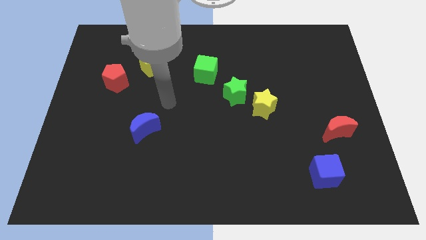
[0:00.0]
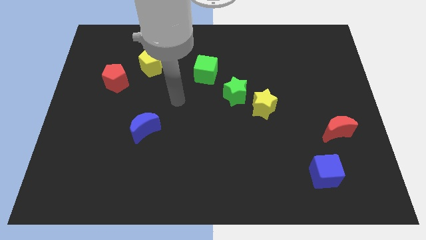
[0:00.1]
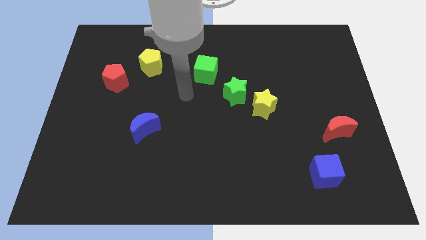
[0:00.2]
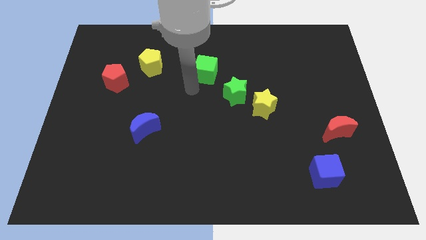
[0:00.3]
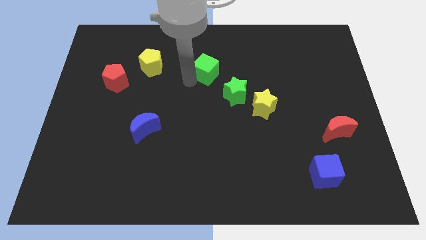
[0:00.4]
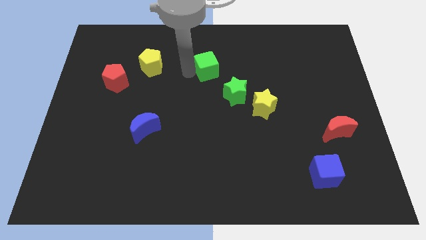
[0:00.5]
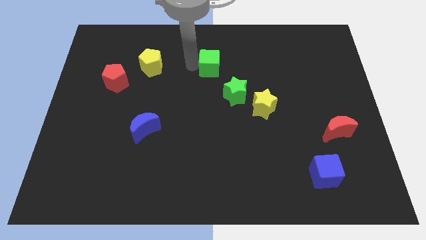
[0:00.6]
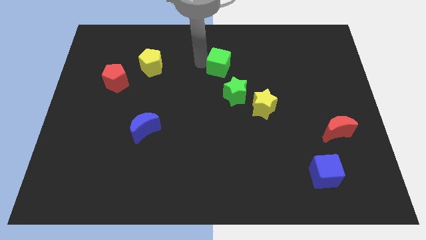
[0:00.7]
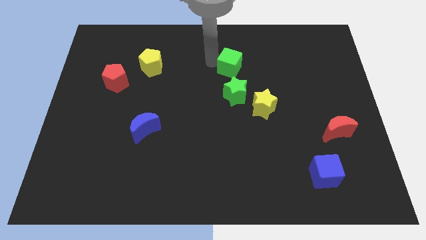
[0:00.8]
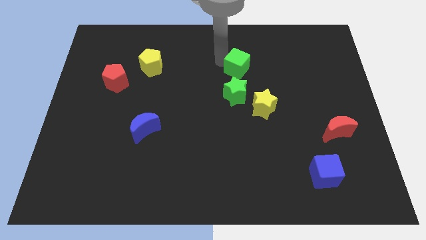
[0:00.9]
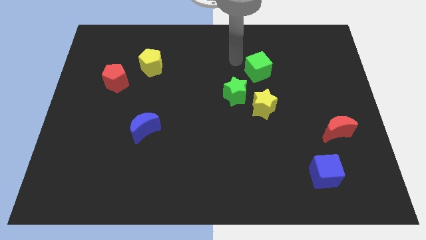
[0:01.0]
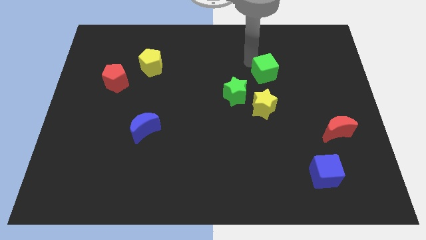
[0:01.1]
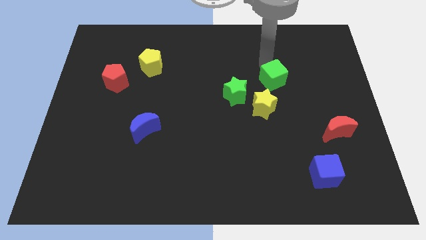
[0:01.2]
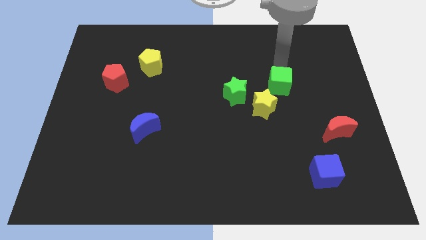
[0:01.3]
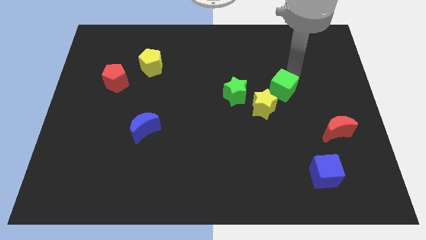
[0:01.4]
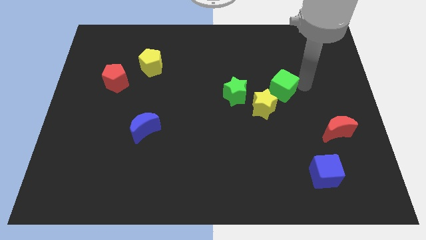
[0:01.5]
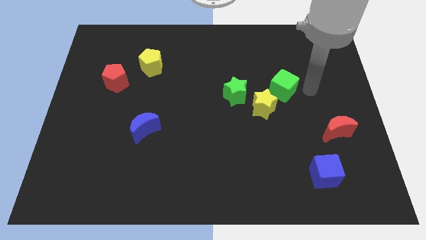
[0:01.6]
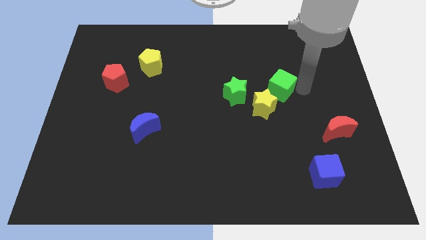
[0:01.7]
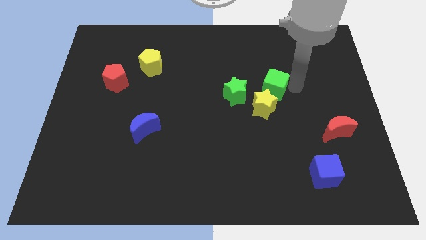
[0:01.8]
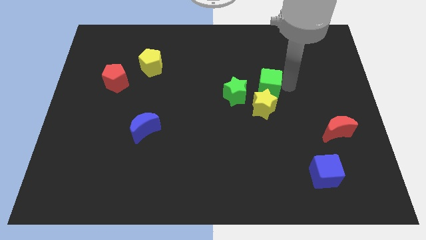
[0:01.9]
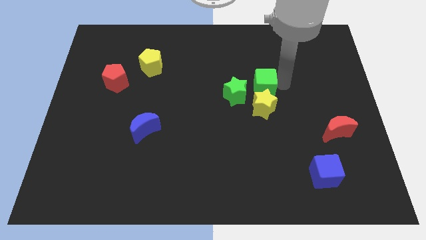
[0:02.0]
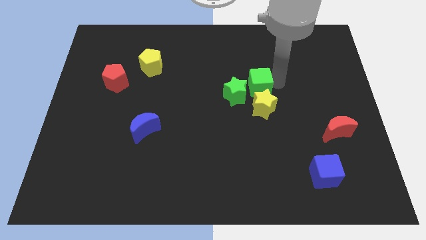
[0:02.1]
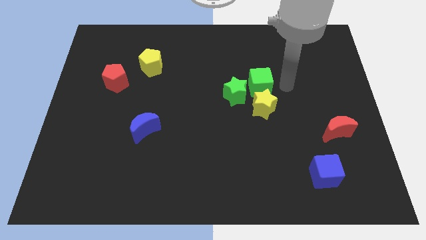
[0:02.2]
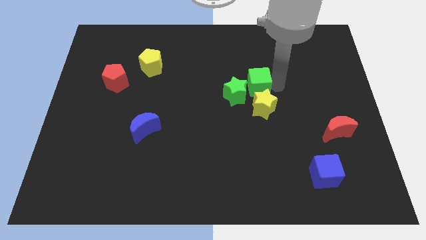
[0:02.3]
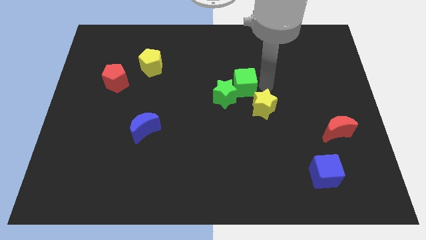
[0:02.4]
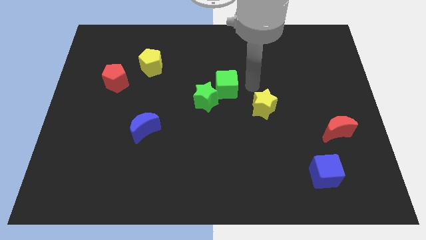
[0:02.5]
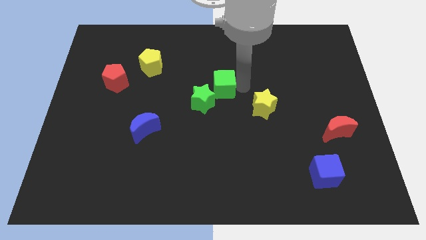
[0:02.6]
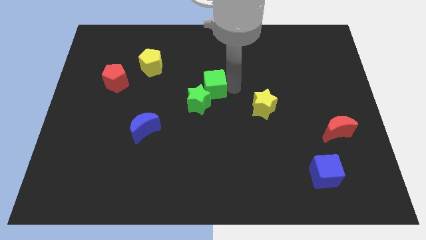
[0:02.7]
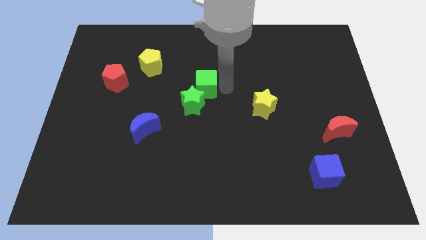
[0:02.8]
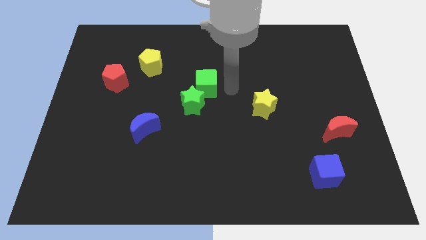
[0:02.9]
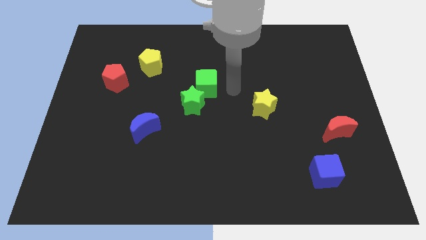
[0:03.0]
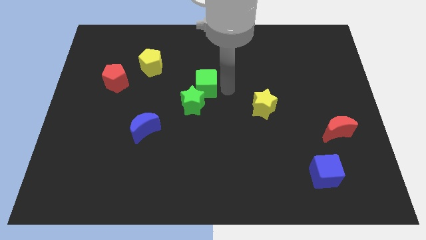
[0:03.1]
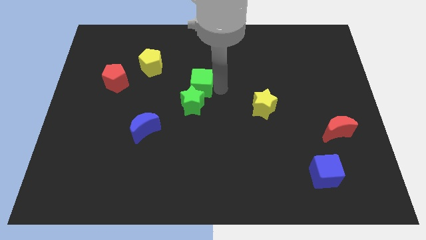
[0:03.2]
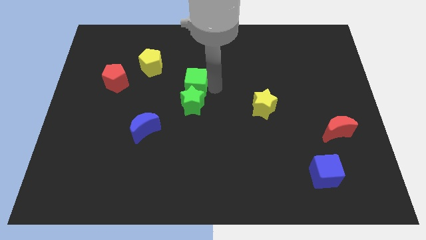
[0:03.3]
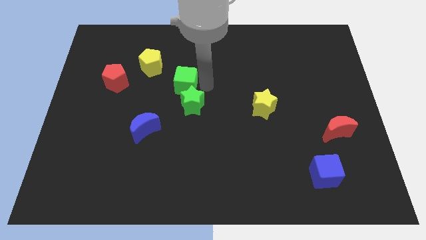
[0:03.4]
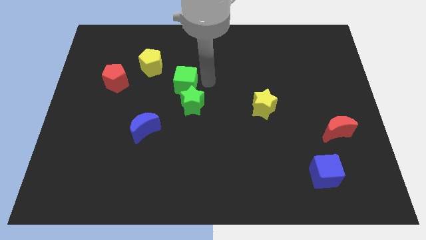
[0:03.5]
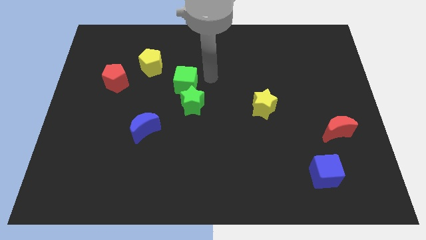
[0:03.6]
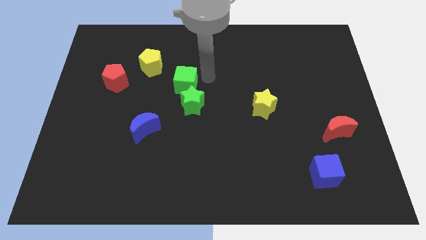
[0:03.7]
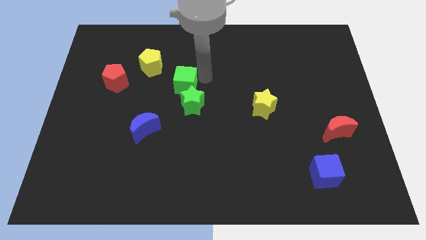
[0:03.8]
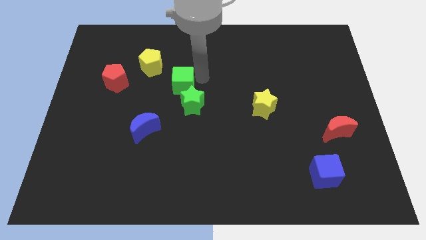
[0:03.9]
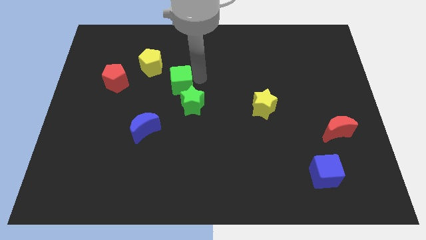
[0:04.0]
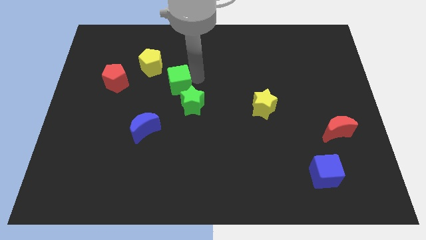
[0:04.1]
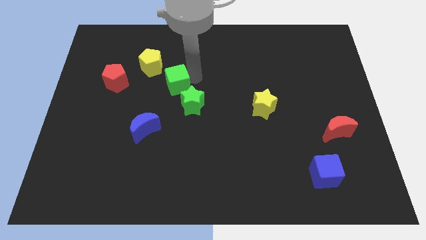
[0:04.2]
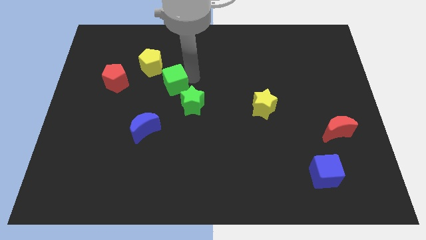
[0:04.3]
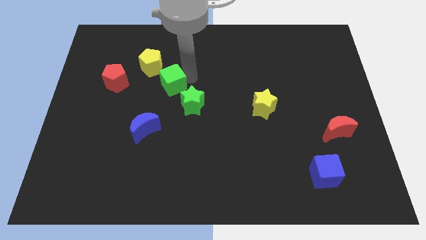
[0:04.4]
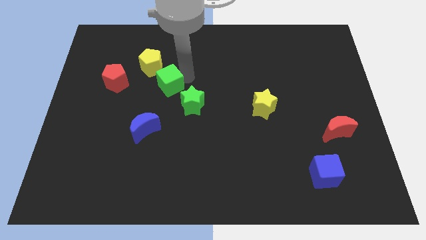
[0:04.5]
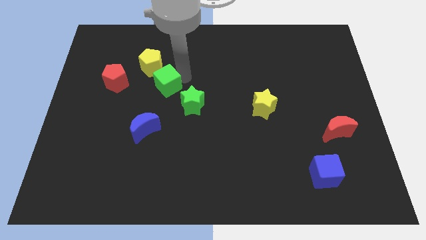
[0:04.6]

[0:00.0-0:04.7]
move the green cube above the blue moon

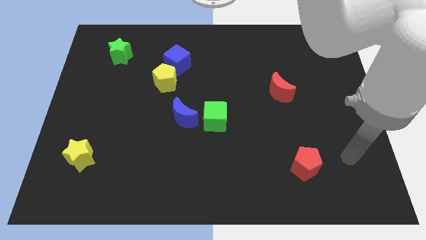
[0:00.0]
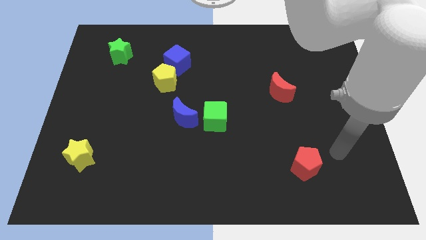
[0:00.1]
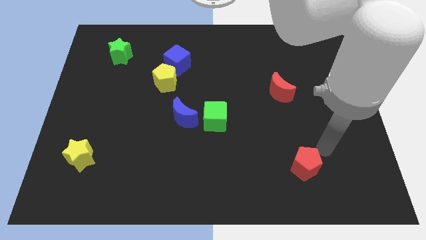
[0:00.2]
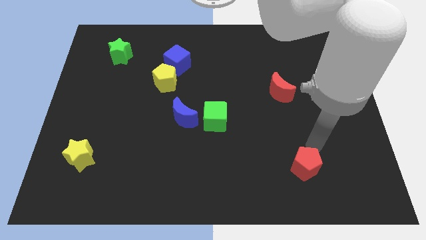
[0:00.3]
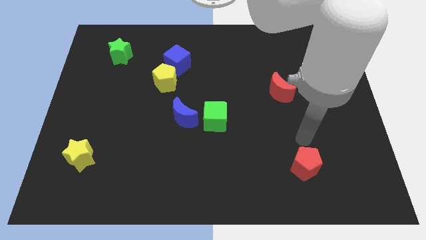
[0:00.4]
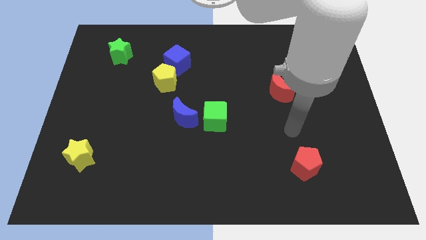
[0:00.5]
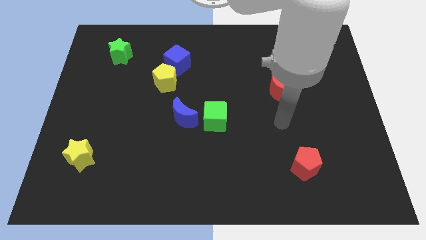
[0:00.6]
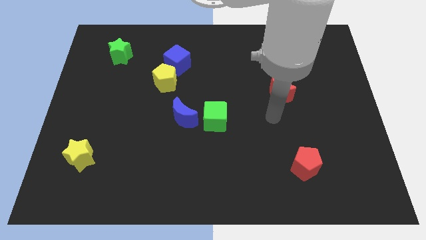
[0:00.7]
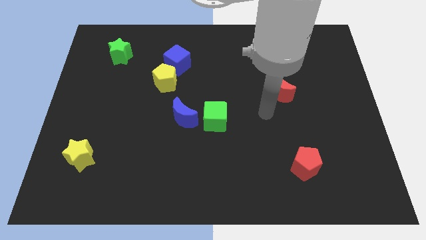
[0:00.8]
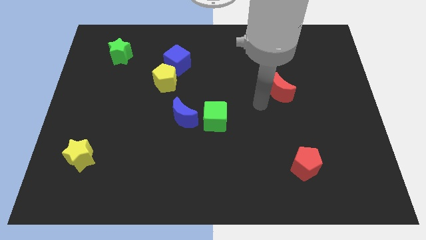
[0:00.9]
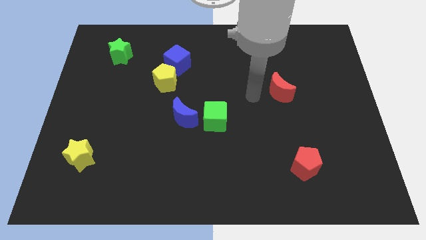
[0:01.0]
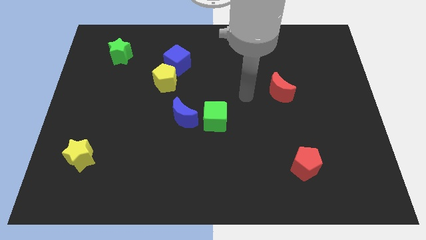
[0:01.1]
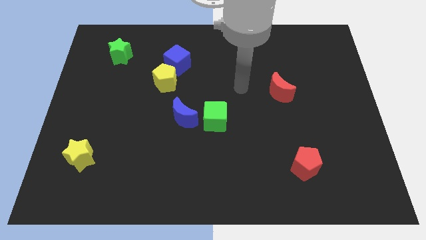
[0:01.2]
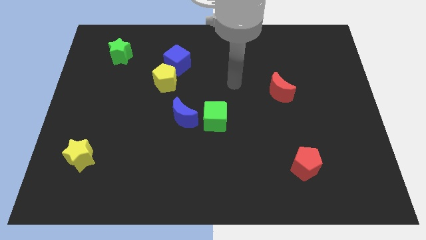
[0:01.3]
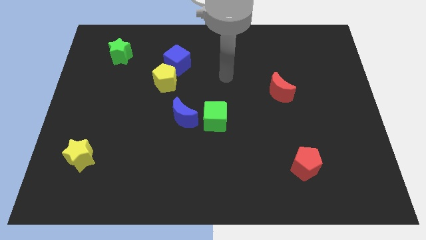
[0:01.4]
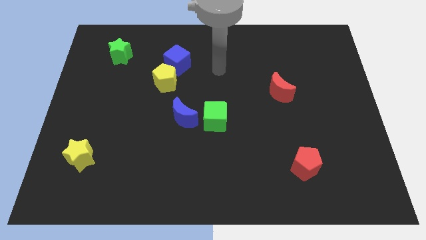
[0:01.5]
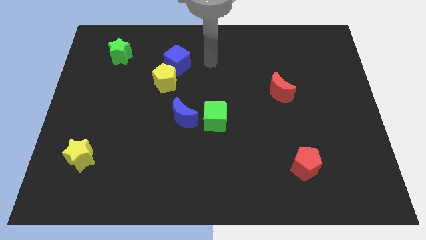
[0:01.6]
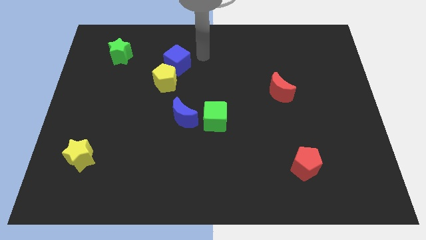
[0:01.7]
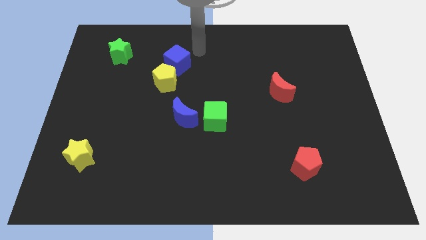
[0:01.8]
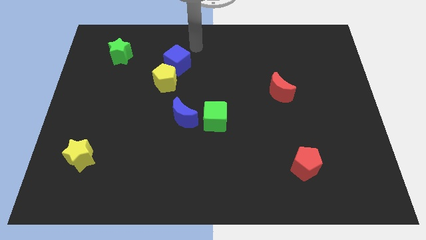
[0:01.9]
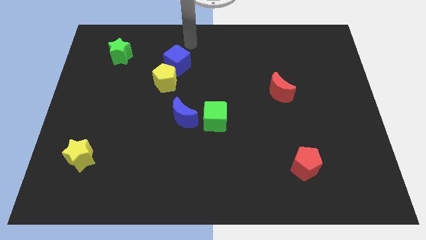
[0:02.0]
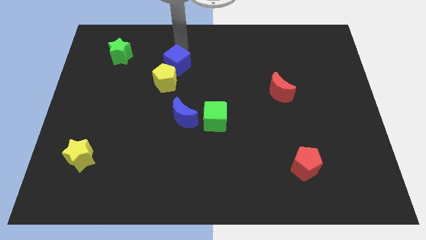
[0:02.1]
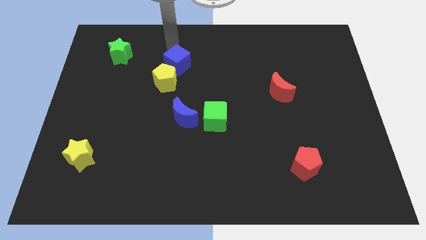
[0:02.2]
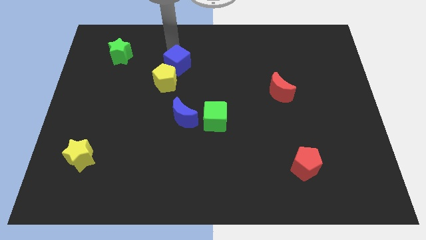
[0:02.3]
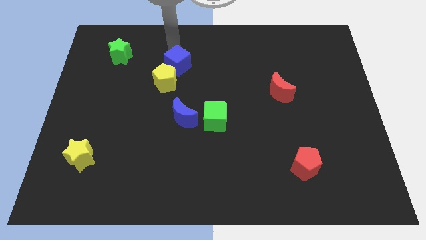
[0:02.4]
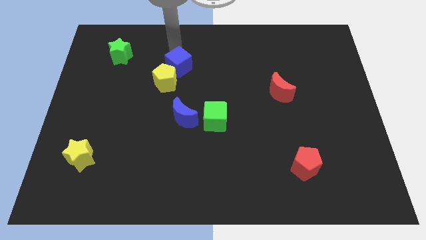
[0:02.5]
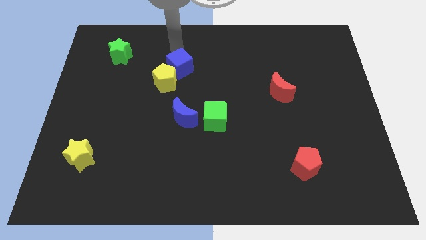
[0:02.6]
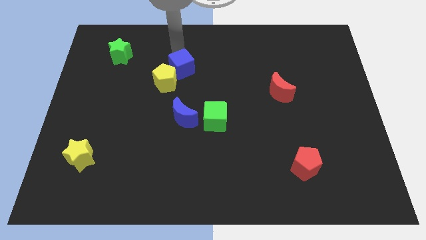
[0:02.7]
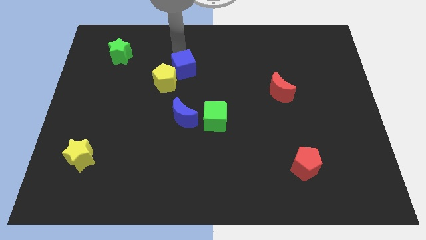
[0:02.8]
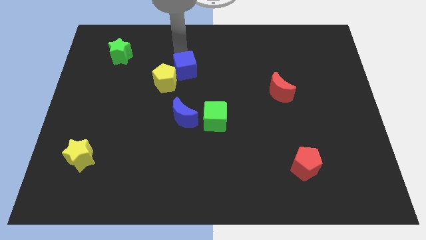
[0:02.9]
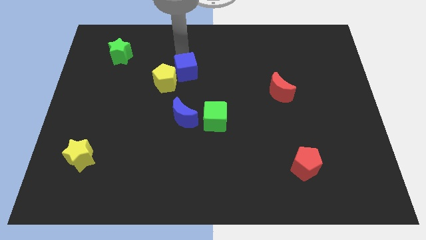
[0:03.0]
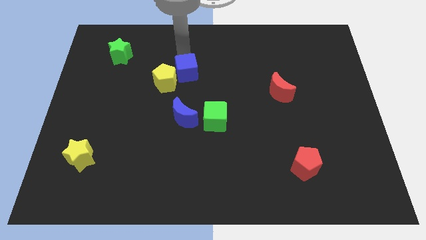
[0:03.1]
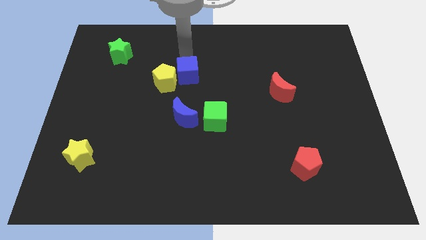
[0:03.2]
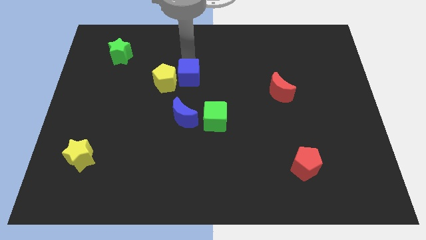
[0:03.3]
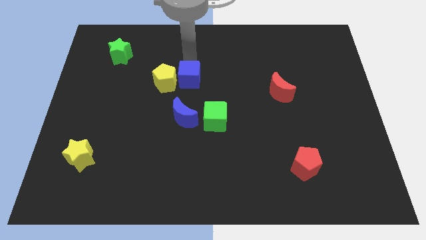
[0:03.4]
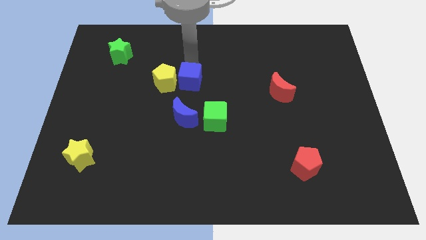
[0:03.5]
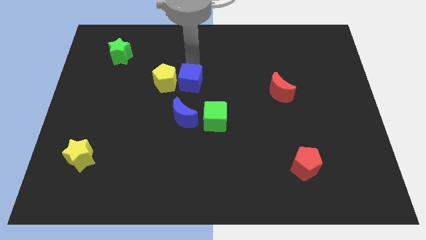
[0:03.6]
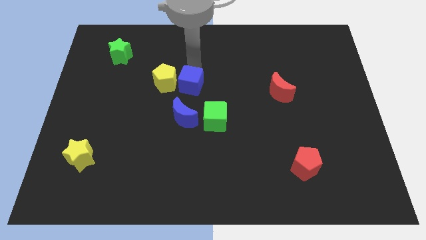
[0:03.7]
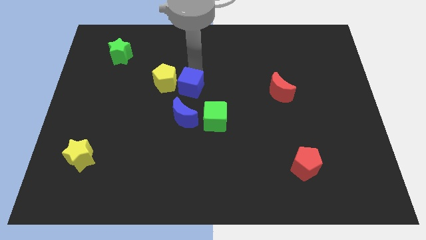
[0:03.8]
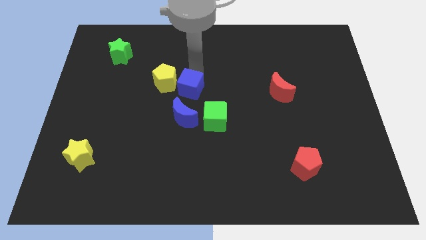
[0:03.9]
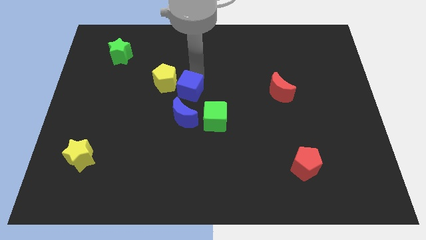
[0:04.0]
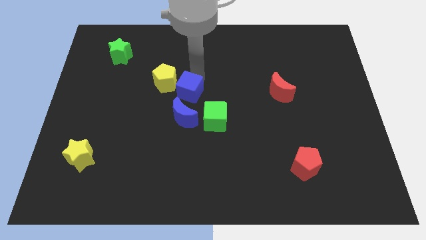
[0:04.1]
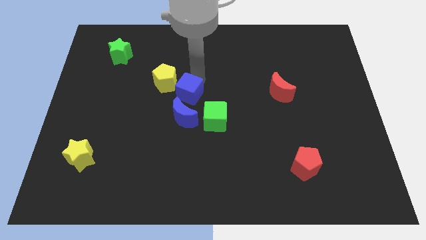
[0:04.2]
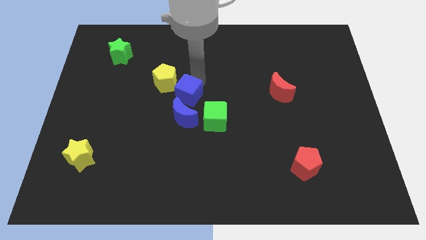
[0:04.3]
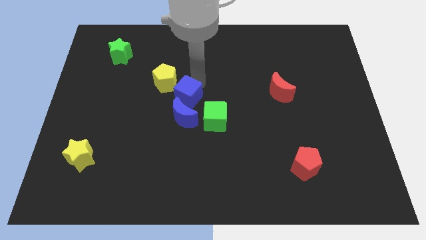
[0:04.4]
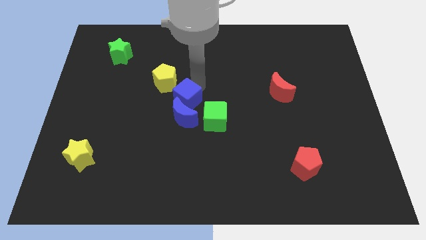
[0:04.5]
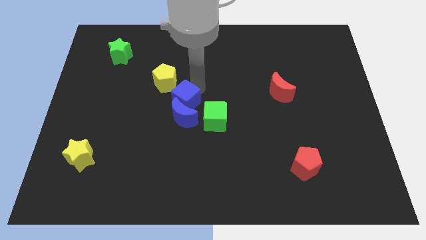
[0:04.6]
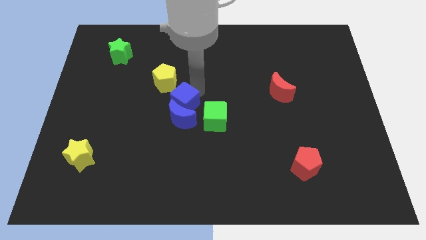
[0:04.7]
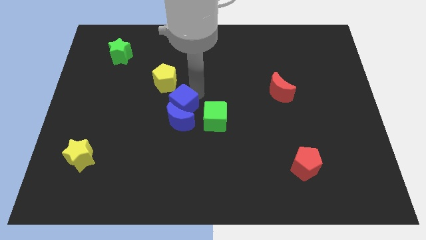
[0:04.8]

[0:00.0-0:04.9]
slide the blue cube to the bottom of the yellow pentagon
